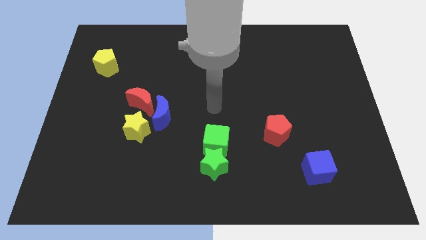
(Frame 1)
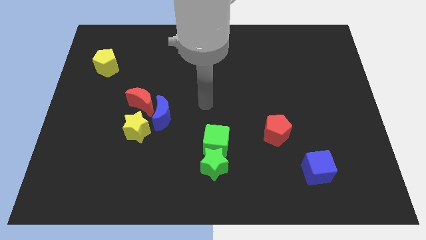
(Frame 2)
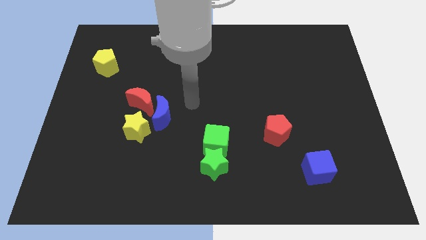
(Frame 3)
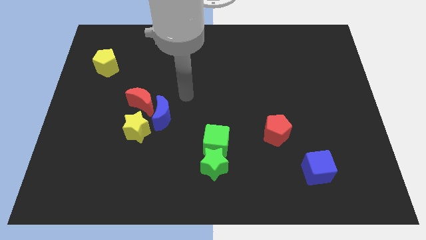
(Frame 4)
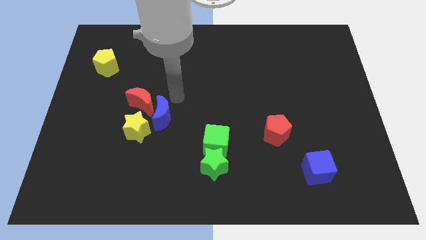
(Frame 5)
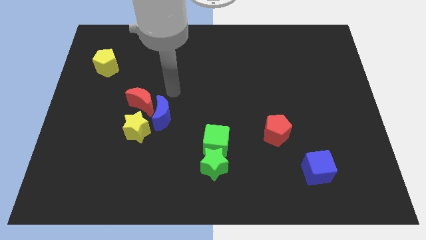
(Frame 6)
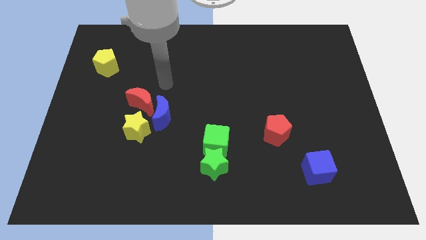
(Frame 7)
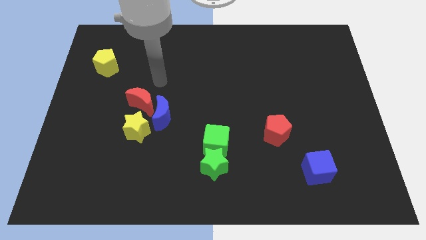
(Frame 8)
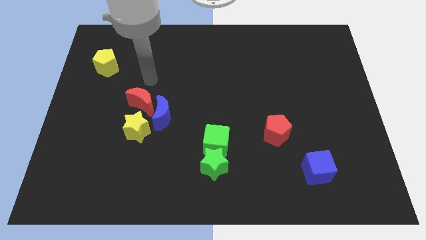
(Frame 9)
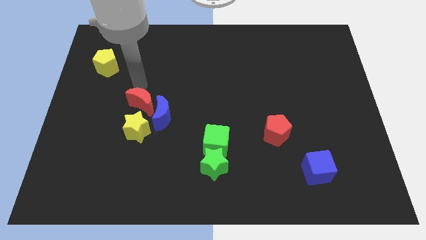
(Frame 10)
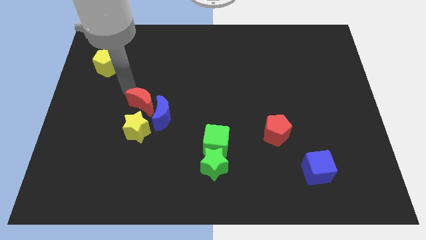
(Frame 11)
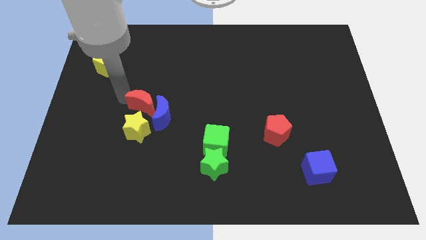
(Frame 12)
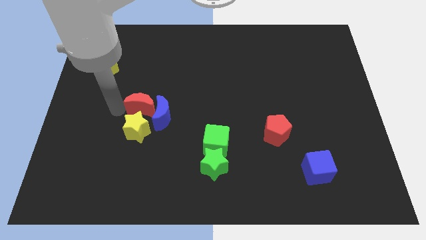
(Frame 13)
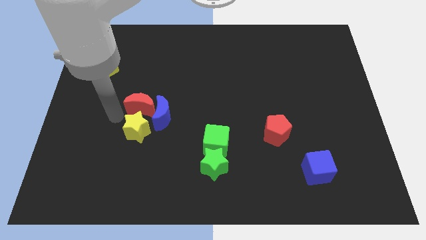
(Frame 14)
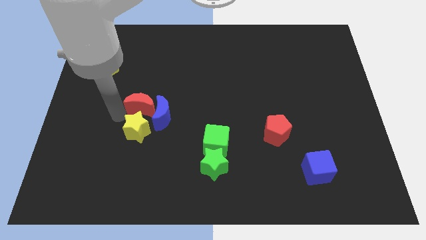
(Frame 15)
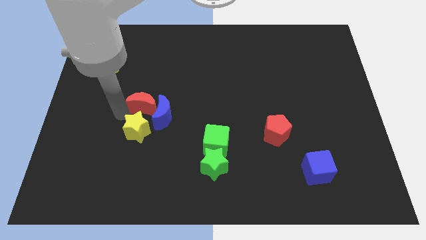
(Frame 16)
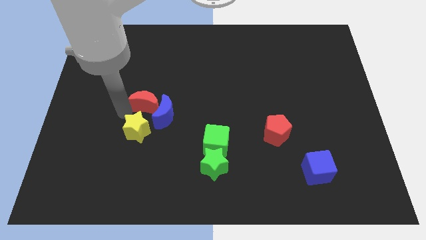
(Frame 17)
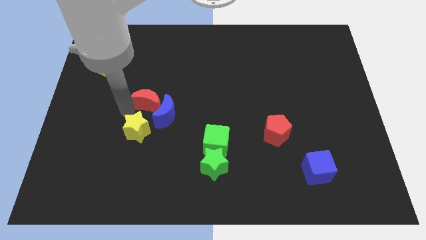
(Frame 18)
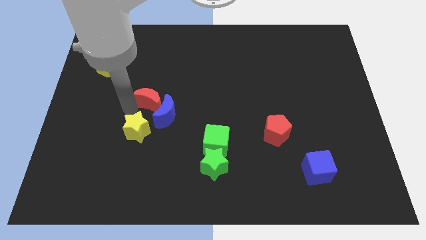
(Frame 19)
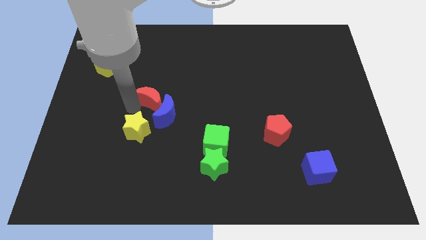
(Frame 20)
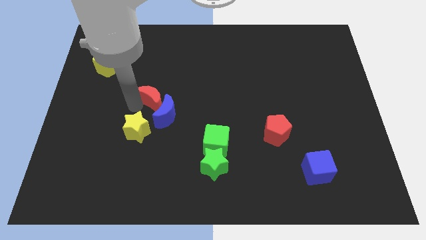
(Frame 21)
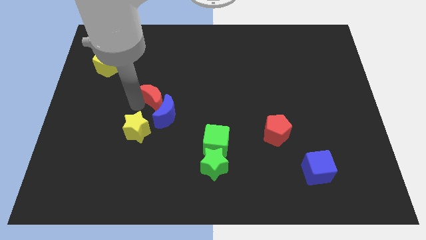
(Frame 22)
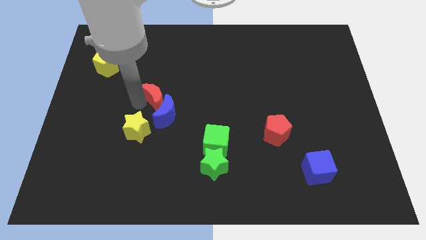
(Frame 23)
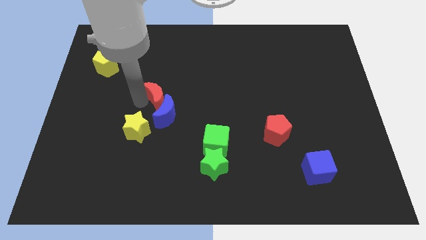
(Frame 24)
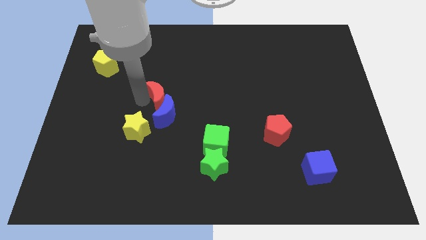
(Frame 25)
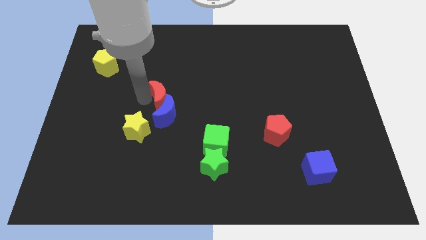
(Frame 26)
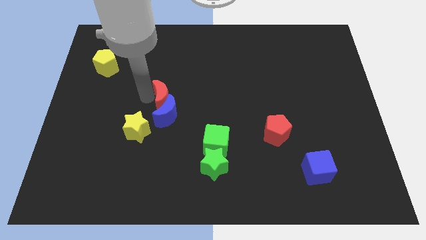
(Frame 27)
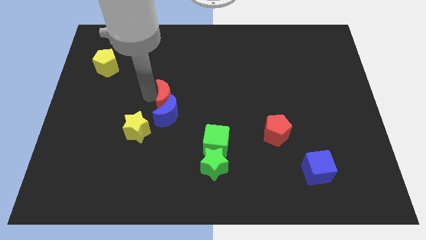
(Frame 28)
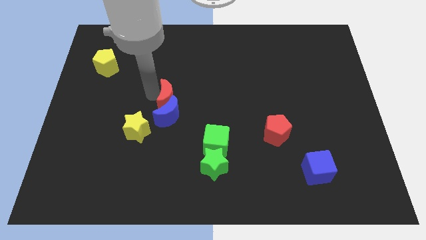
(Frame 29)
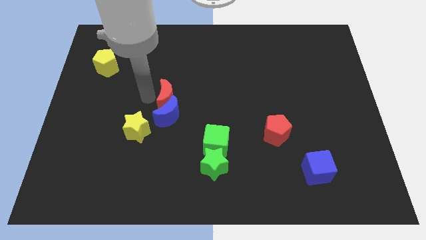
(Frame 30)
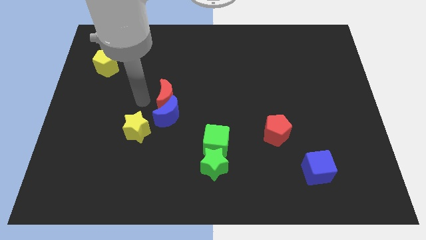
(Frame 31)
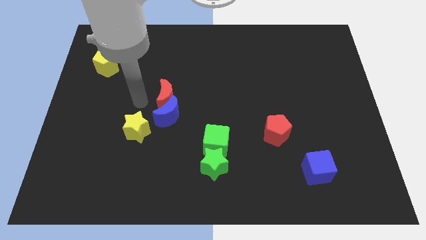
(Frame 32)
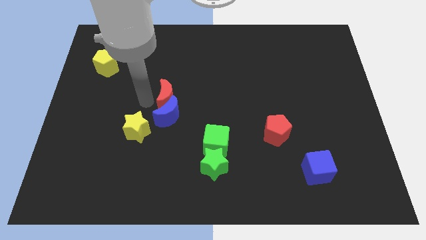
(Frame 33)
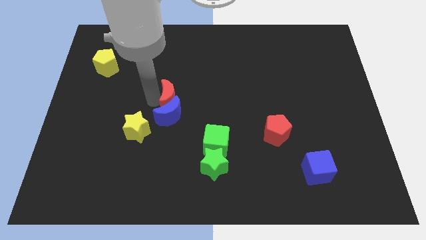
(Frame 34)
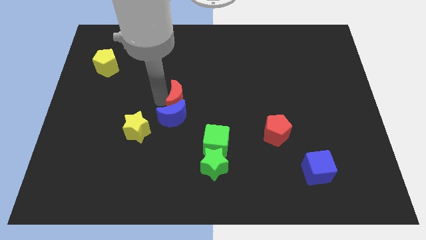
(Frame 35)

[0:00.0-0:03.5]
slide the red moon to the right a little bit

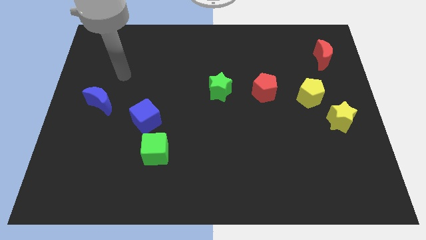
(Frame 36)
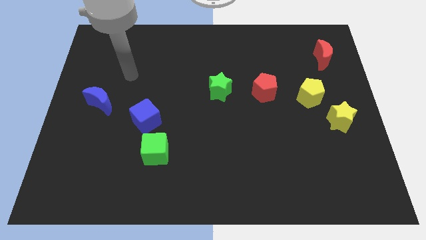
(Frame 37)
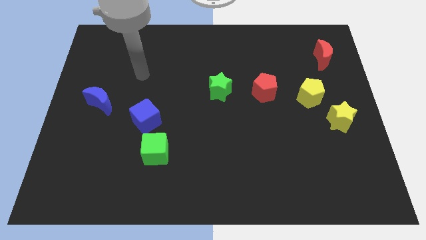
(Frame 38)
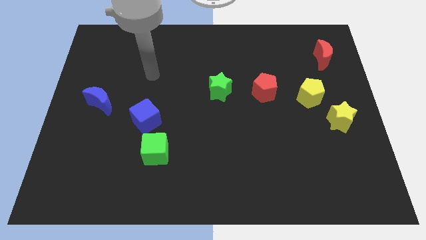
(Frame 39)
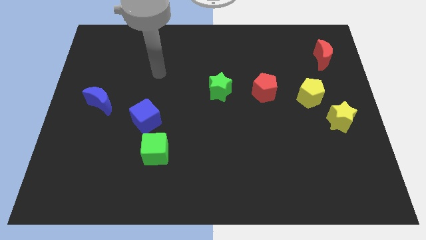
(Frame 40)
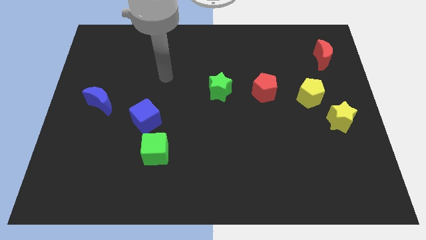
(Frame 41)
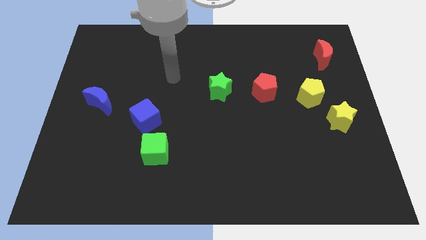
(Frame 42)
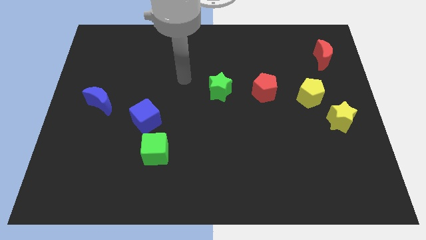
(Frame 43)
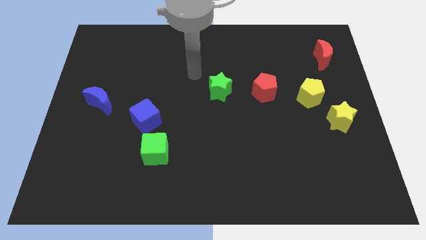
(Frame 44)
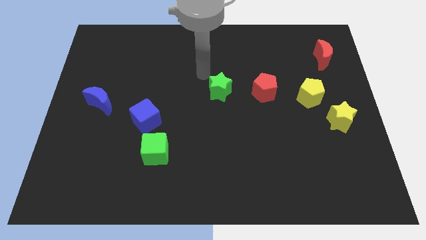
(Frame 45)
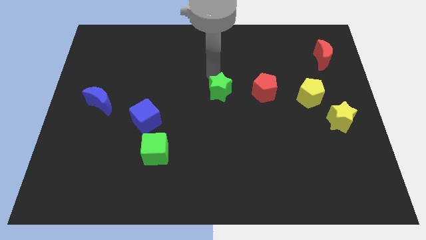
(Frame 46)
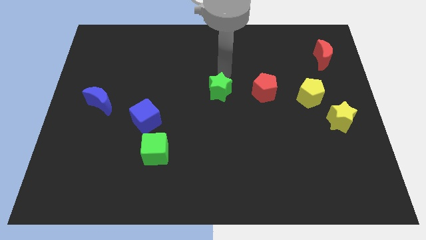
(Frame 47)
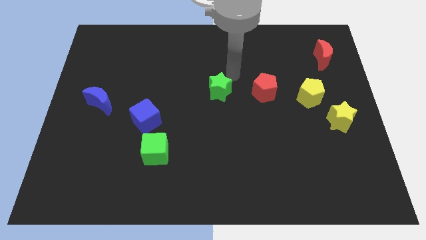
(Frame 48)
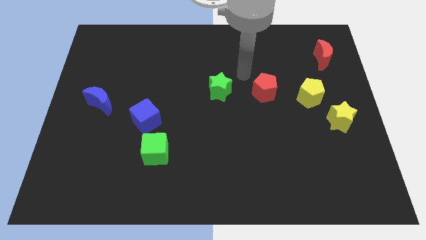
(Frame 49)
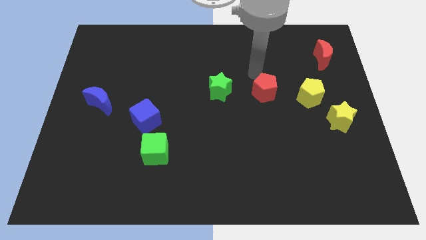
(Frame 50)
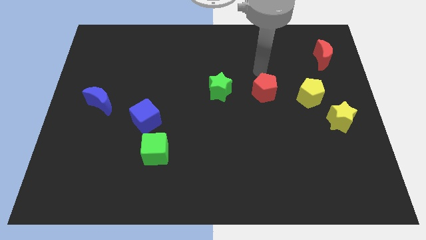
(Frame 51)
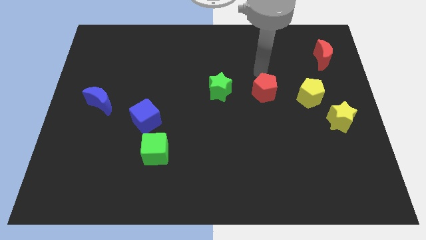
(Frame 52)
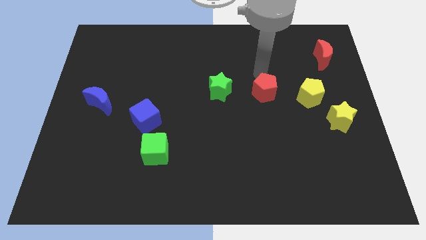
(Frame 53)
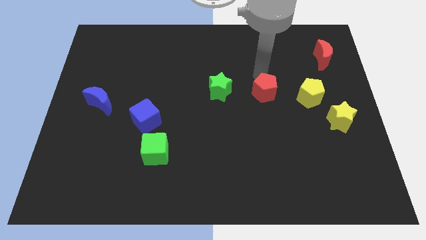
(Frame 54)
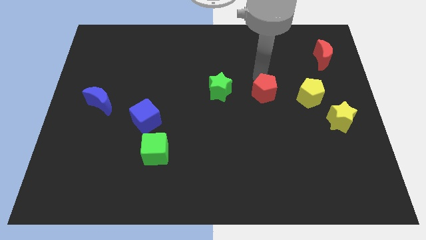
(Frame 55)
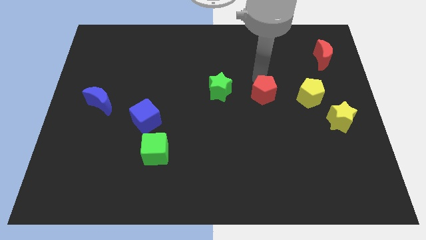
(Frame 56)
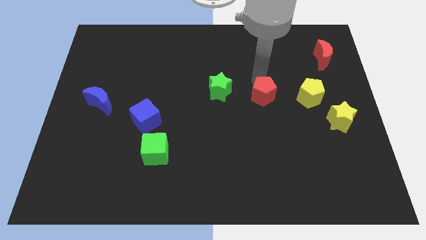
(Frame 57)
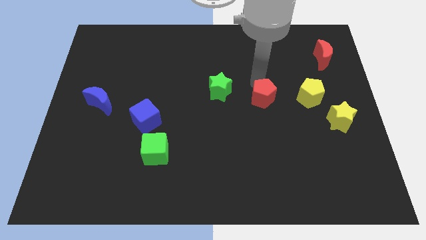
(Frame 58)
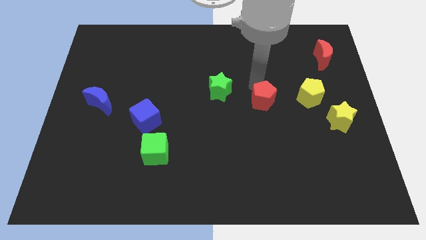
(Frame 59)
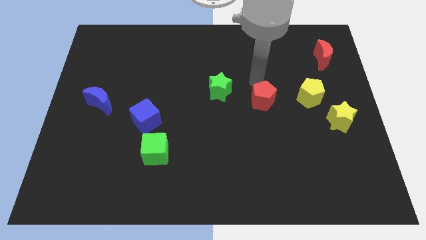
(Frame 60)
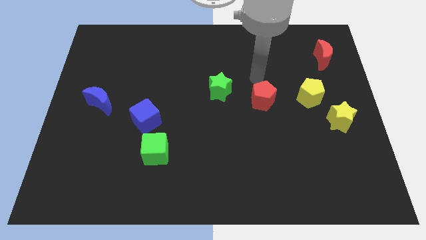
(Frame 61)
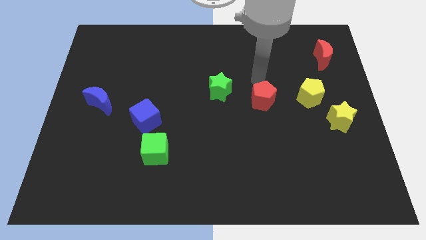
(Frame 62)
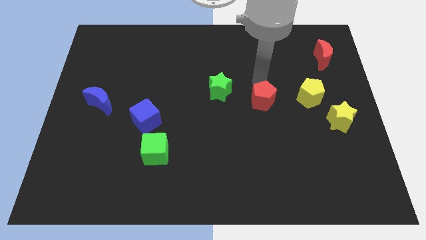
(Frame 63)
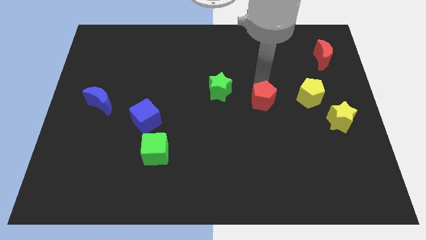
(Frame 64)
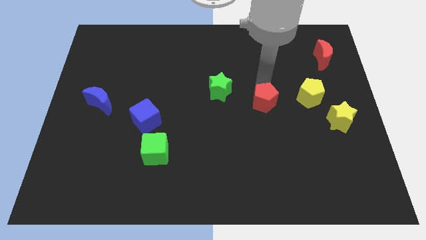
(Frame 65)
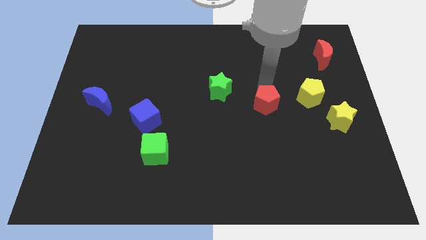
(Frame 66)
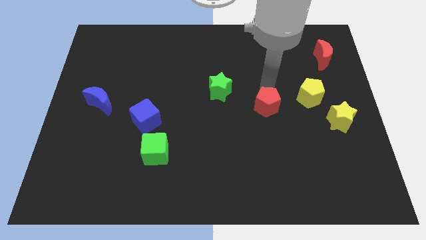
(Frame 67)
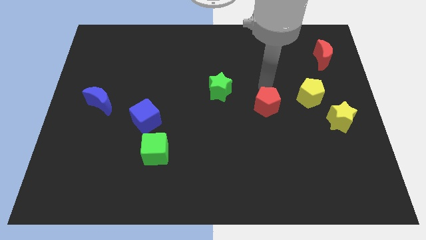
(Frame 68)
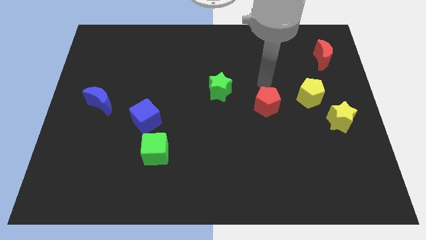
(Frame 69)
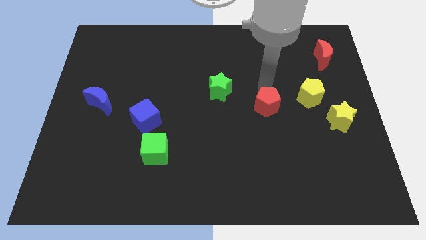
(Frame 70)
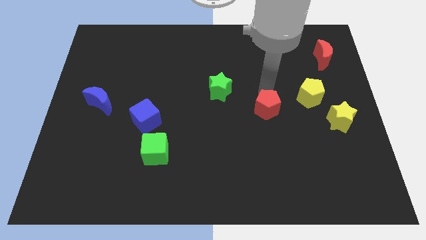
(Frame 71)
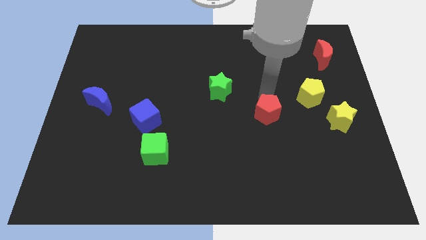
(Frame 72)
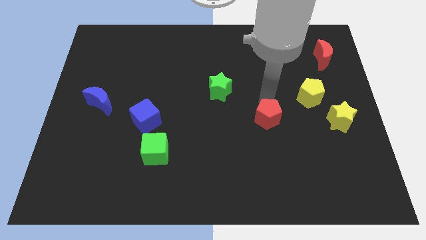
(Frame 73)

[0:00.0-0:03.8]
slightly slide the red pentagon downwards

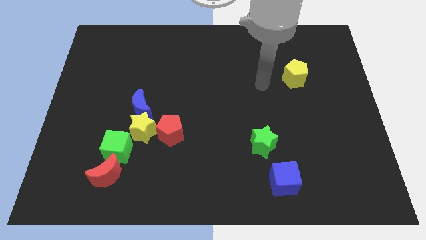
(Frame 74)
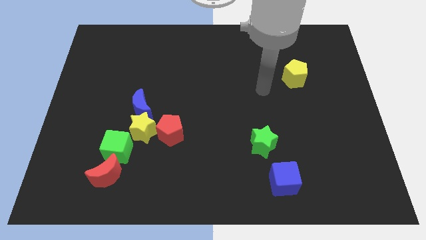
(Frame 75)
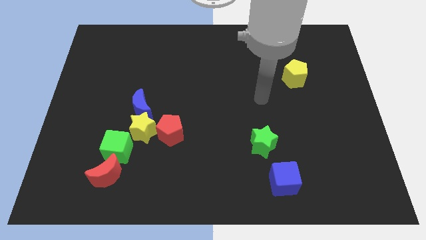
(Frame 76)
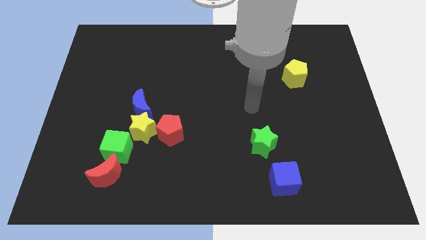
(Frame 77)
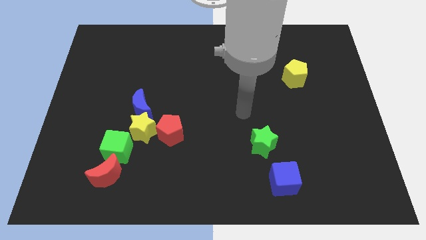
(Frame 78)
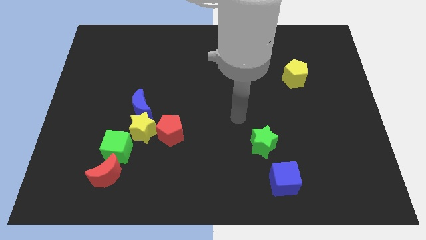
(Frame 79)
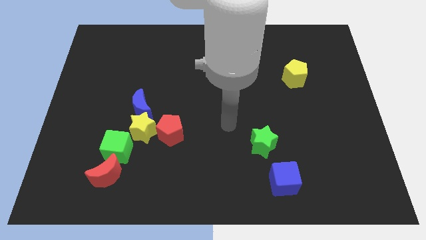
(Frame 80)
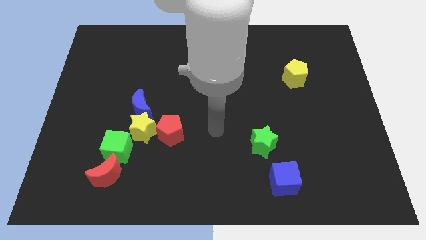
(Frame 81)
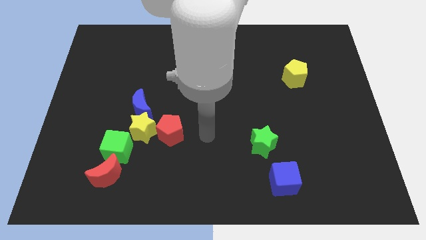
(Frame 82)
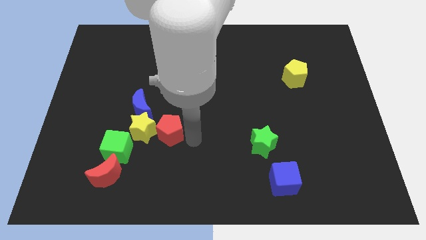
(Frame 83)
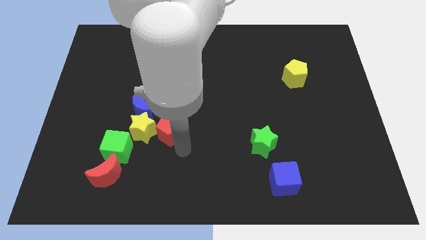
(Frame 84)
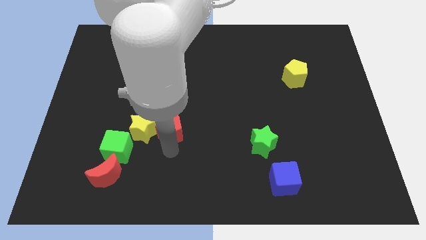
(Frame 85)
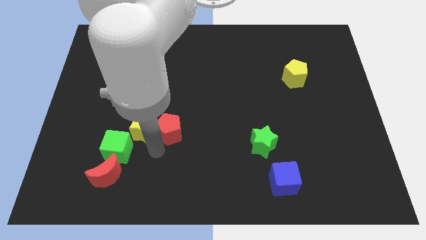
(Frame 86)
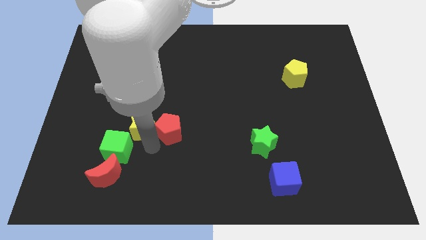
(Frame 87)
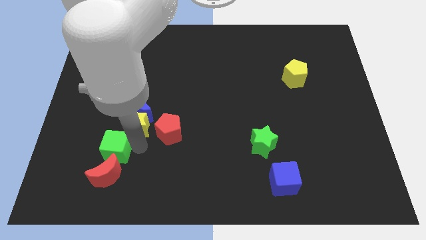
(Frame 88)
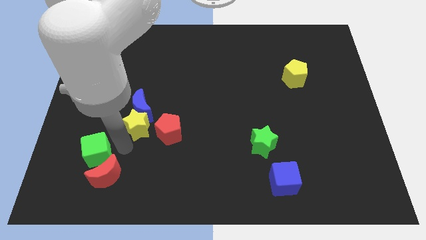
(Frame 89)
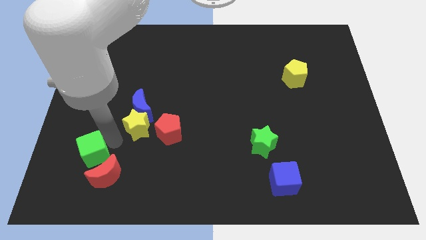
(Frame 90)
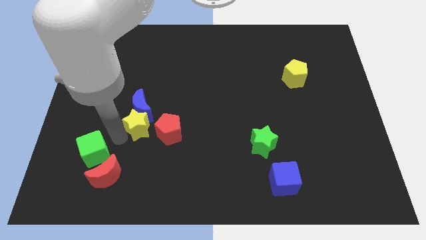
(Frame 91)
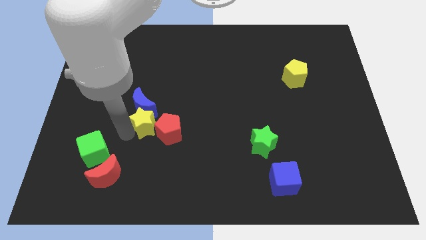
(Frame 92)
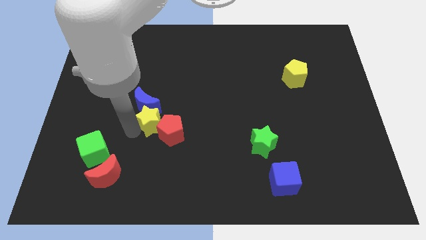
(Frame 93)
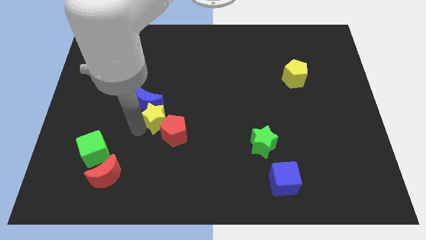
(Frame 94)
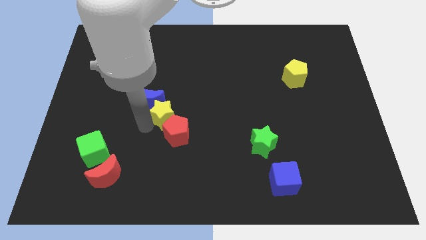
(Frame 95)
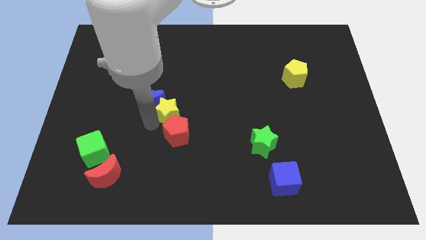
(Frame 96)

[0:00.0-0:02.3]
move the yellow star diagonally upwards and to the right somewhat
